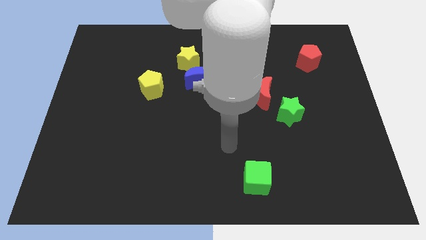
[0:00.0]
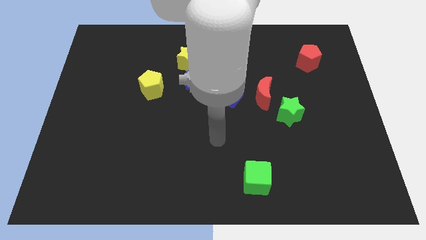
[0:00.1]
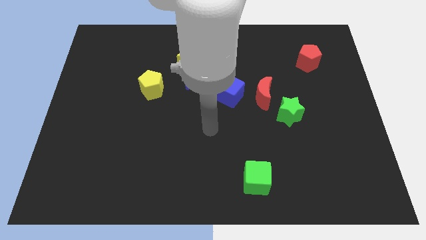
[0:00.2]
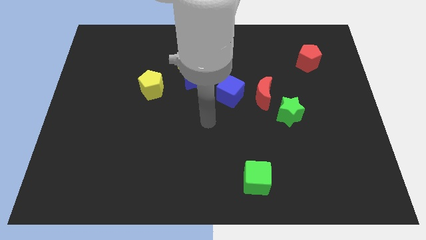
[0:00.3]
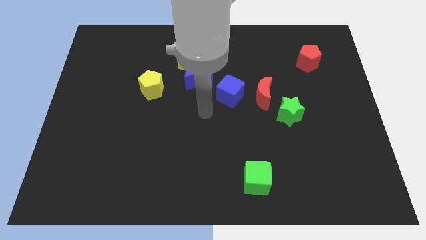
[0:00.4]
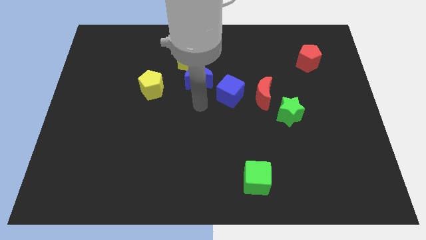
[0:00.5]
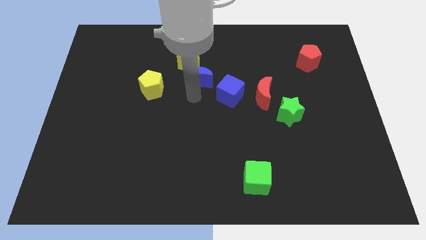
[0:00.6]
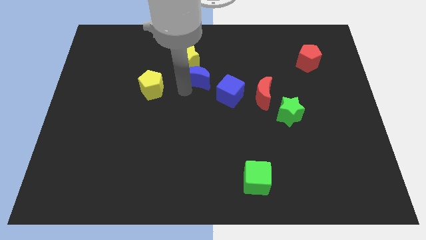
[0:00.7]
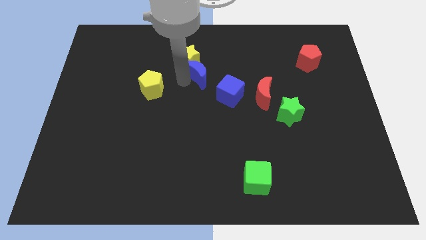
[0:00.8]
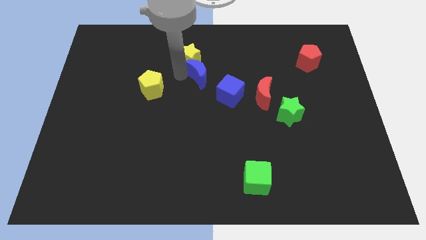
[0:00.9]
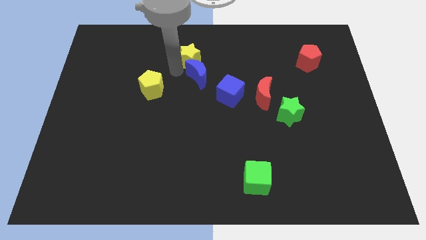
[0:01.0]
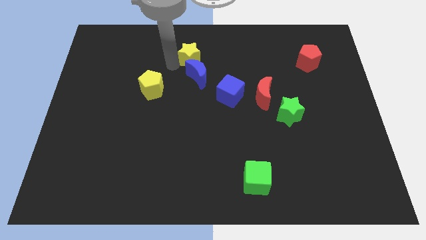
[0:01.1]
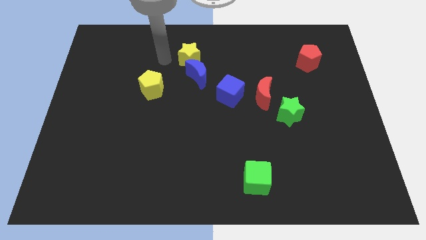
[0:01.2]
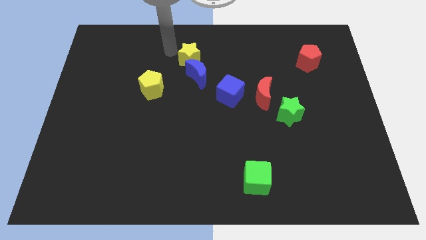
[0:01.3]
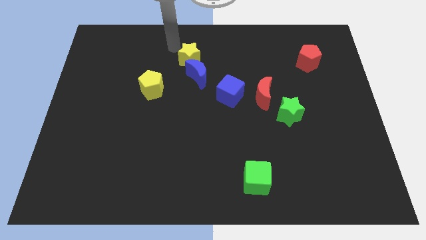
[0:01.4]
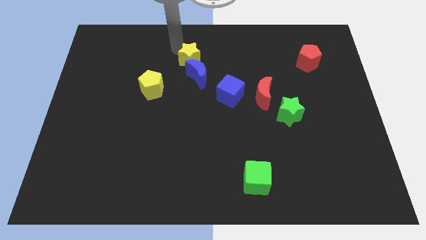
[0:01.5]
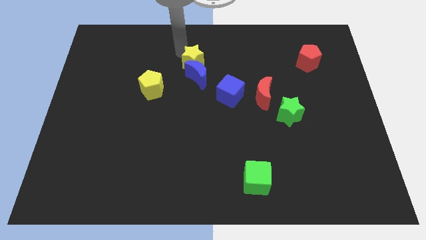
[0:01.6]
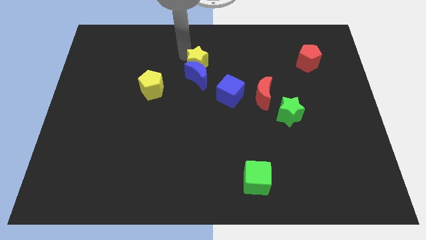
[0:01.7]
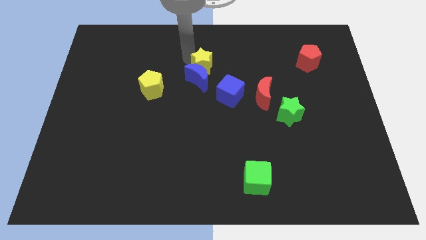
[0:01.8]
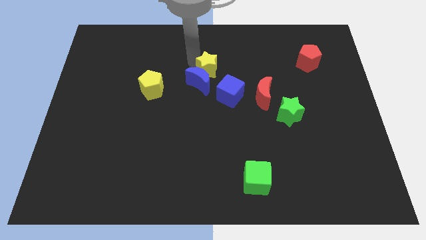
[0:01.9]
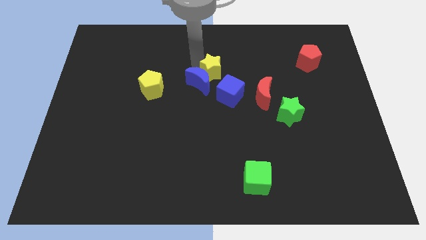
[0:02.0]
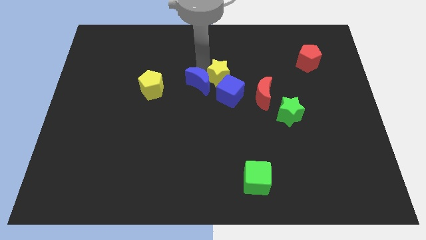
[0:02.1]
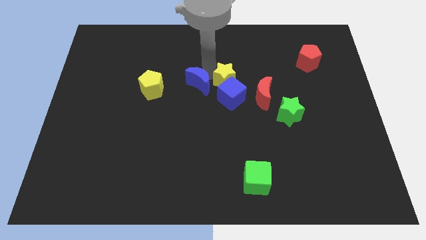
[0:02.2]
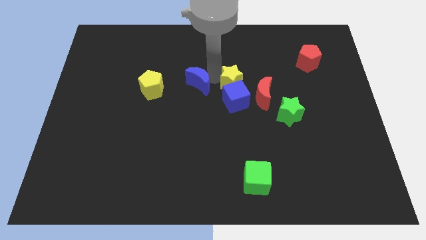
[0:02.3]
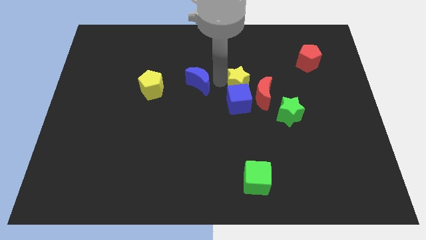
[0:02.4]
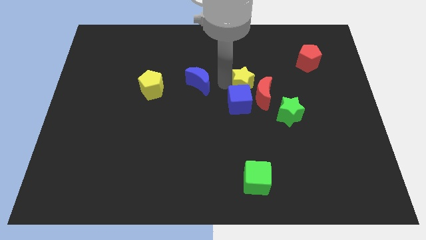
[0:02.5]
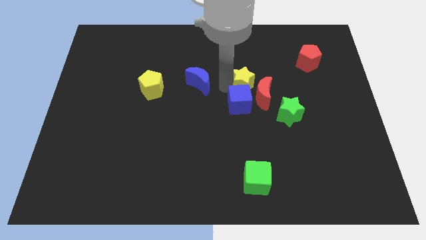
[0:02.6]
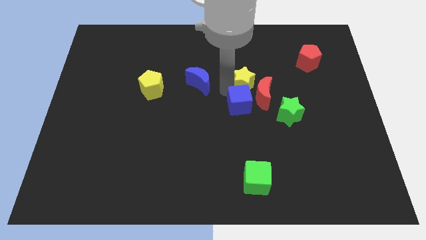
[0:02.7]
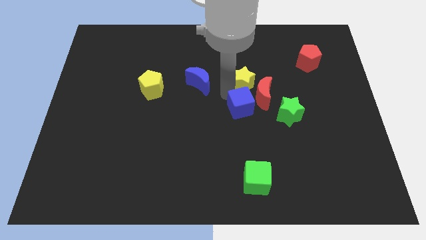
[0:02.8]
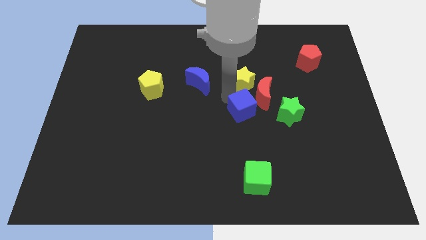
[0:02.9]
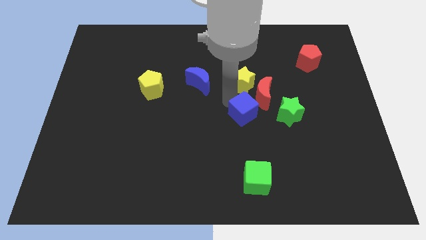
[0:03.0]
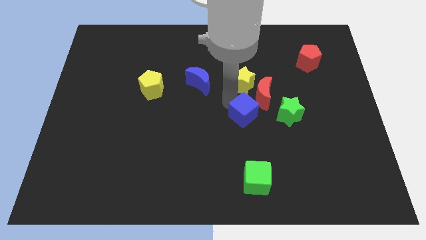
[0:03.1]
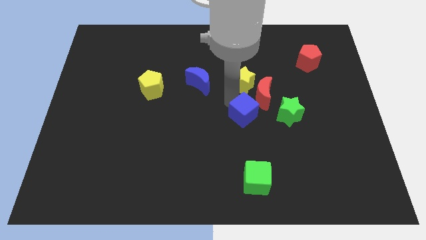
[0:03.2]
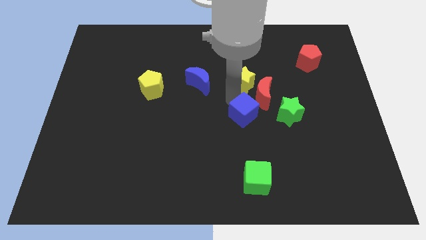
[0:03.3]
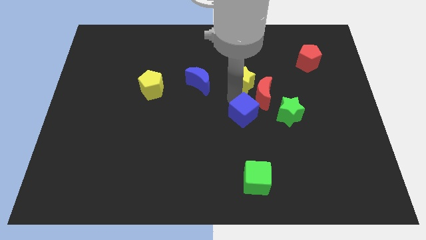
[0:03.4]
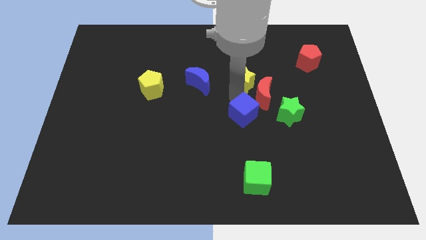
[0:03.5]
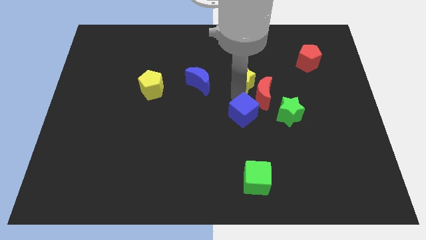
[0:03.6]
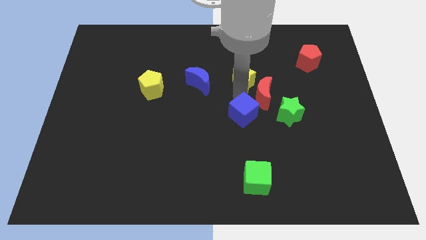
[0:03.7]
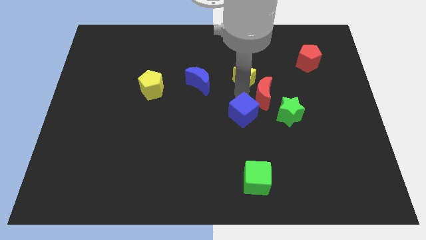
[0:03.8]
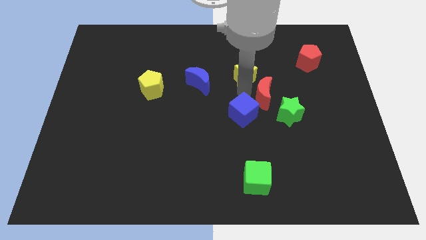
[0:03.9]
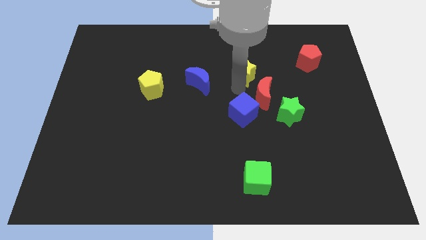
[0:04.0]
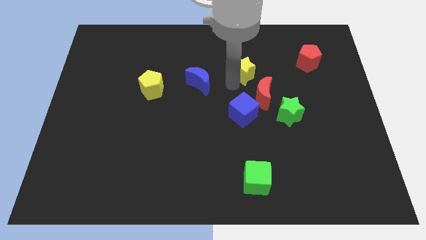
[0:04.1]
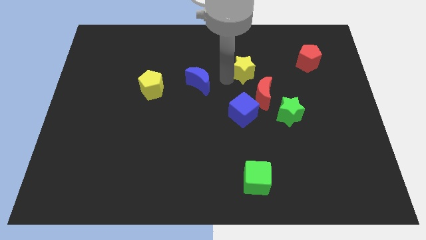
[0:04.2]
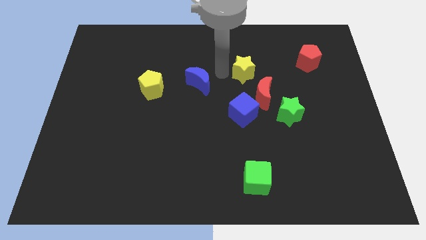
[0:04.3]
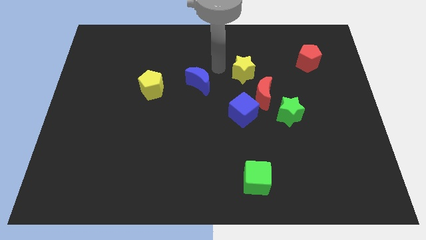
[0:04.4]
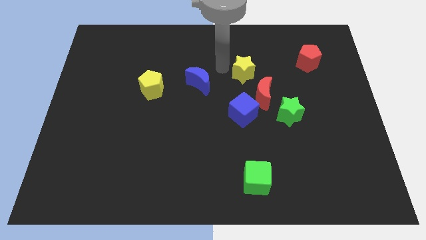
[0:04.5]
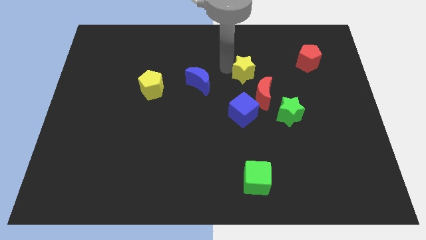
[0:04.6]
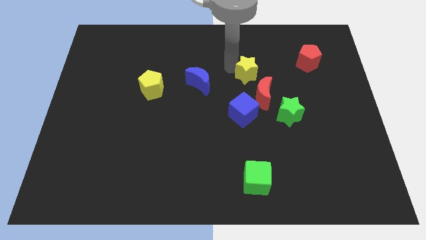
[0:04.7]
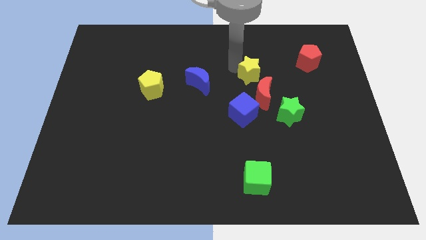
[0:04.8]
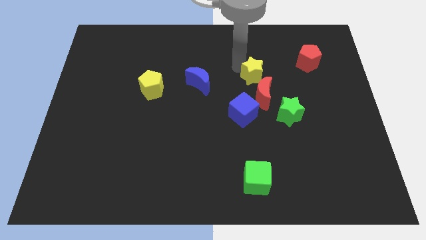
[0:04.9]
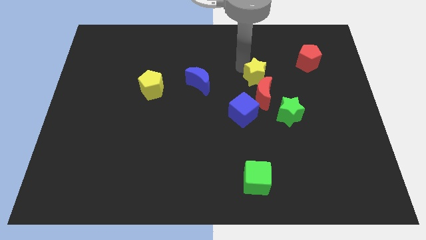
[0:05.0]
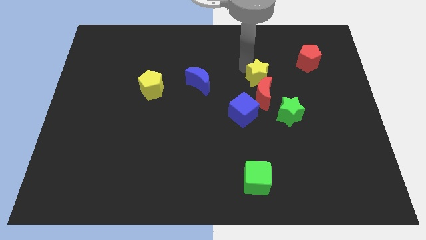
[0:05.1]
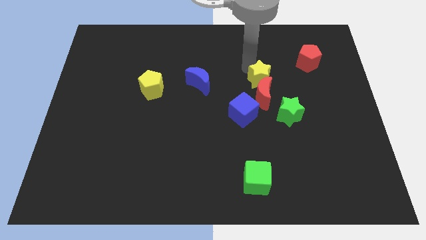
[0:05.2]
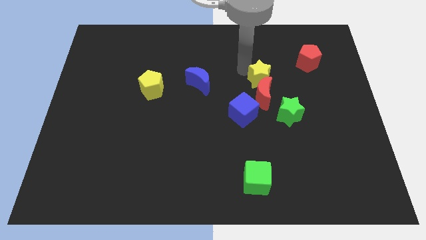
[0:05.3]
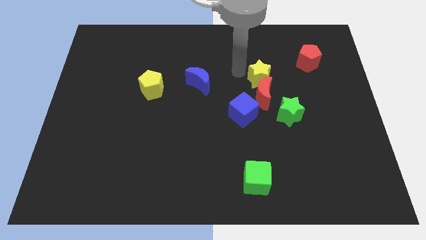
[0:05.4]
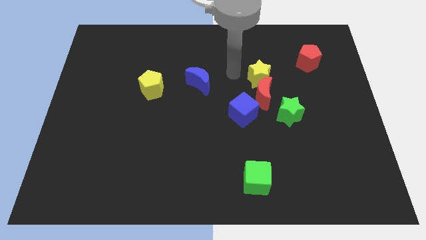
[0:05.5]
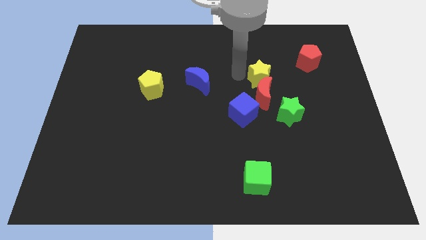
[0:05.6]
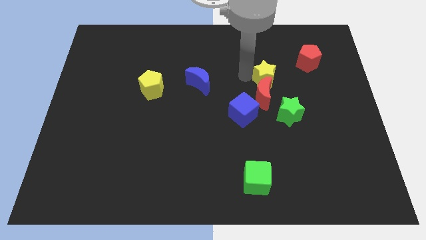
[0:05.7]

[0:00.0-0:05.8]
slide the yellow star above the green star

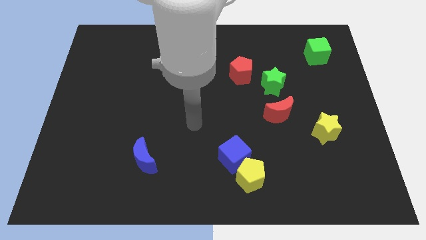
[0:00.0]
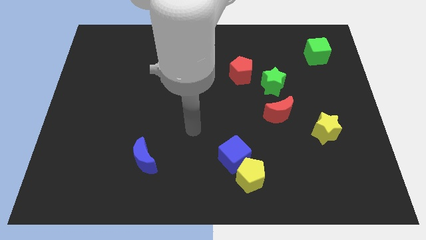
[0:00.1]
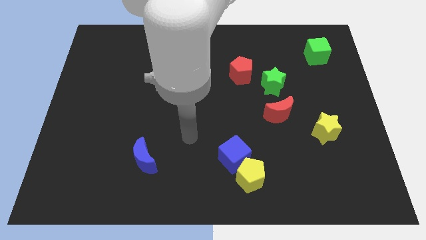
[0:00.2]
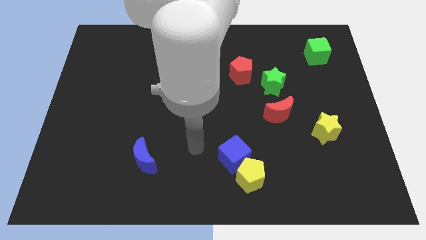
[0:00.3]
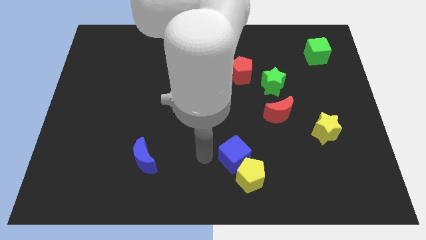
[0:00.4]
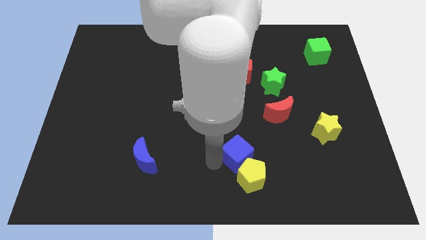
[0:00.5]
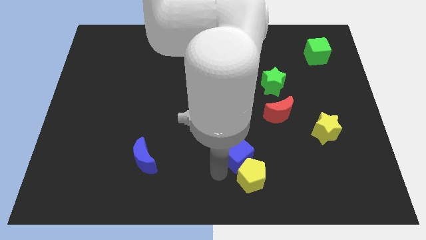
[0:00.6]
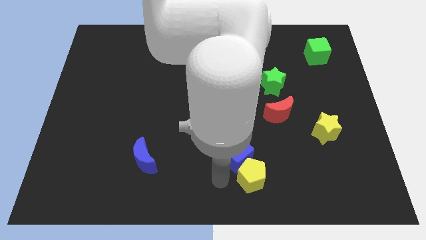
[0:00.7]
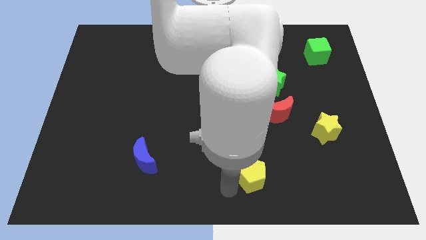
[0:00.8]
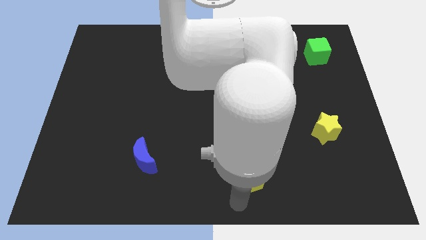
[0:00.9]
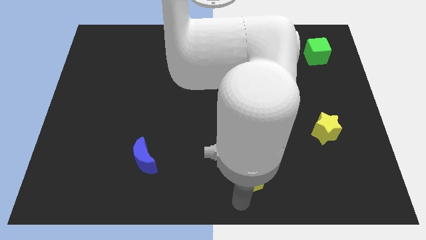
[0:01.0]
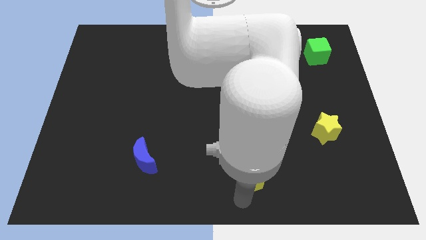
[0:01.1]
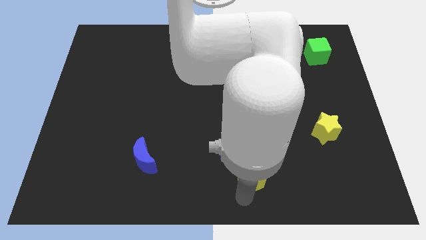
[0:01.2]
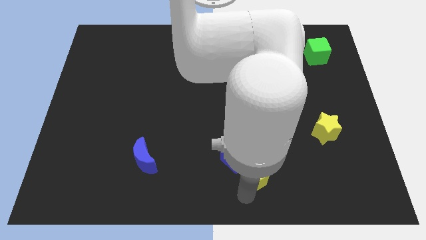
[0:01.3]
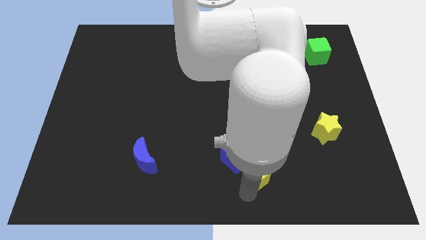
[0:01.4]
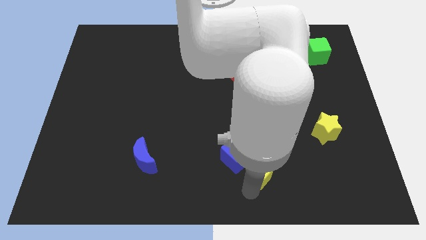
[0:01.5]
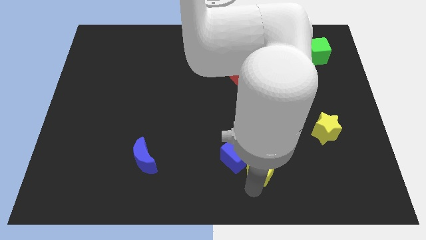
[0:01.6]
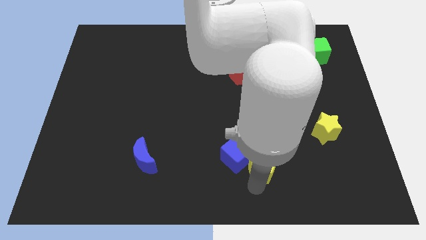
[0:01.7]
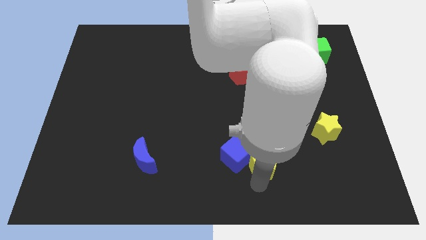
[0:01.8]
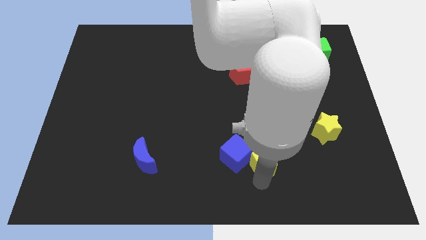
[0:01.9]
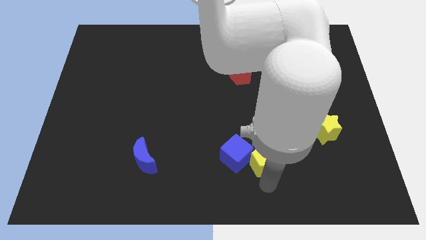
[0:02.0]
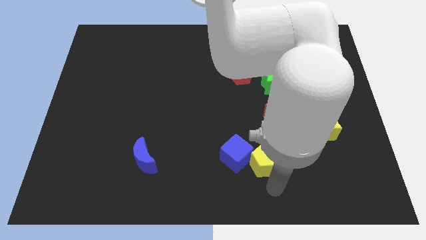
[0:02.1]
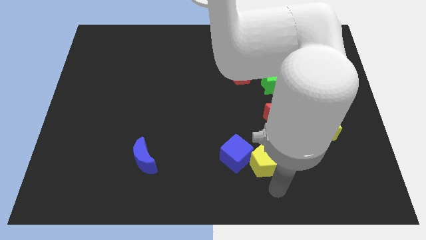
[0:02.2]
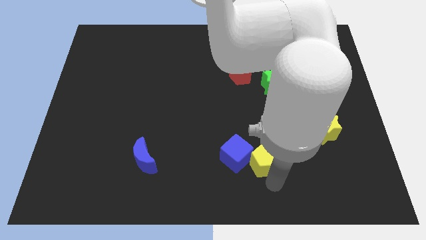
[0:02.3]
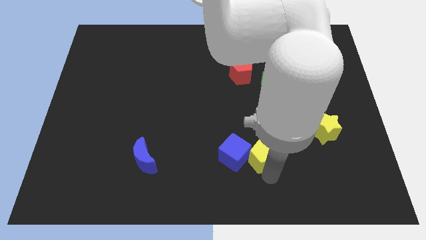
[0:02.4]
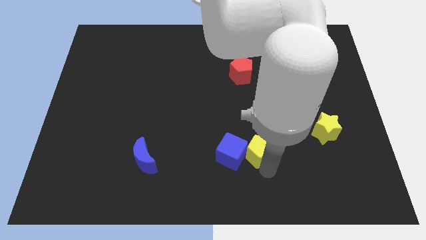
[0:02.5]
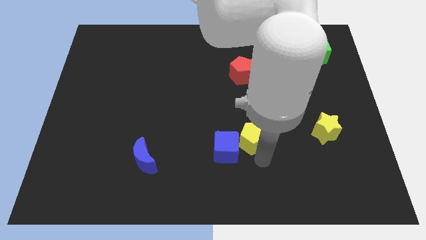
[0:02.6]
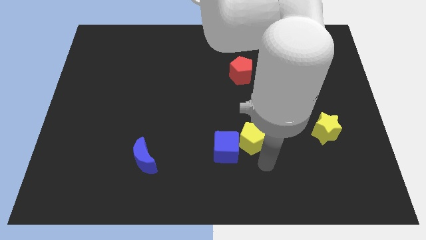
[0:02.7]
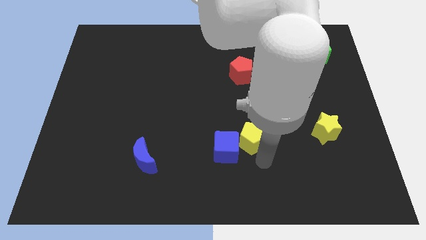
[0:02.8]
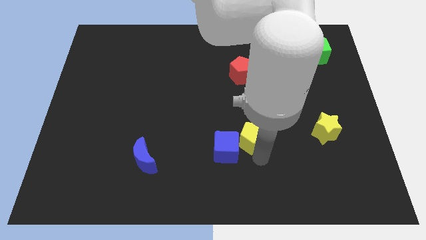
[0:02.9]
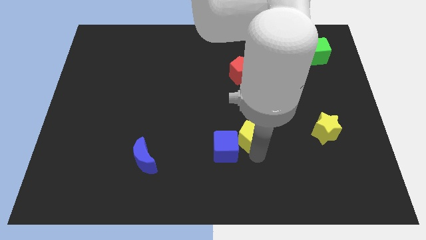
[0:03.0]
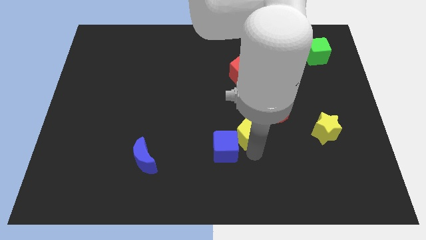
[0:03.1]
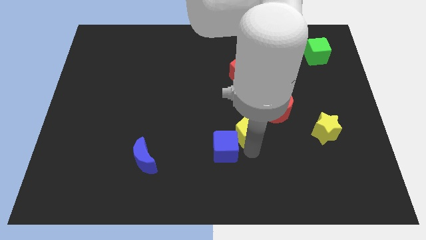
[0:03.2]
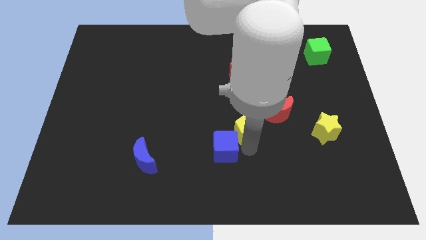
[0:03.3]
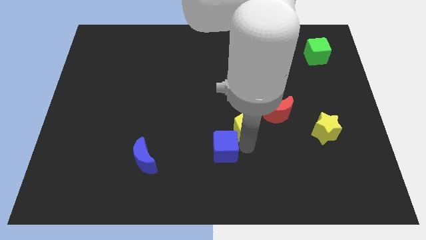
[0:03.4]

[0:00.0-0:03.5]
move the yellow pentagon left of the red moon
